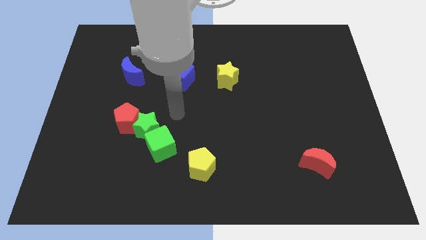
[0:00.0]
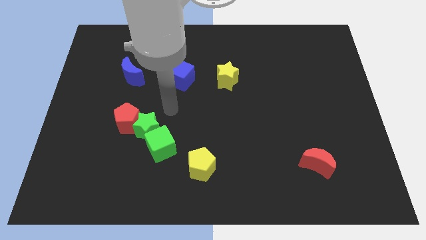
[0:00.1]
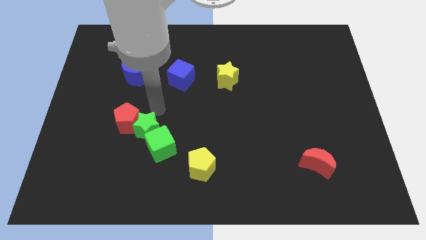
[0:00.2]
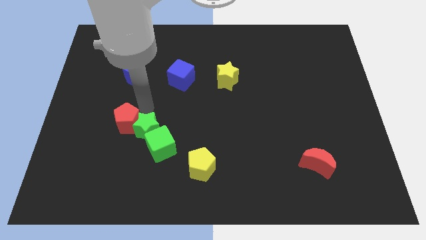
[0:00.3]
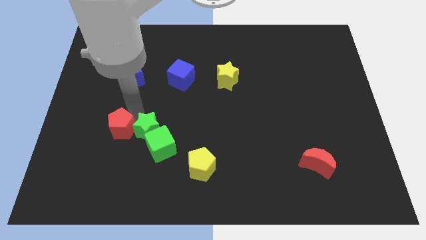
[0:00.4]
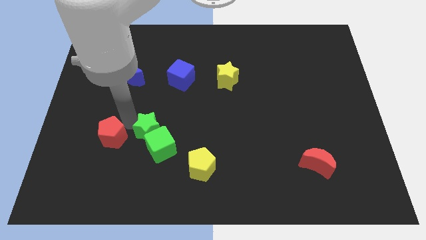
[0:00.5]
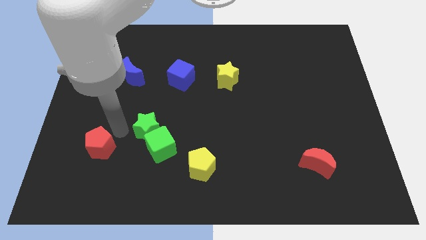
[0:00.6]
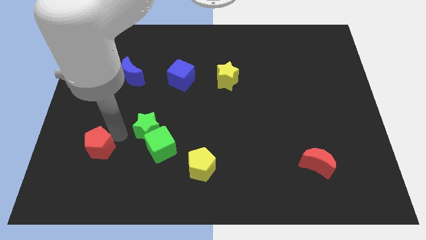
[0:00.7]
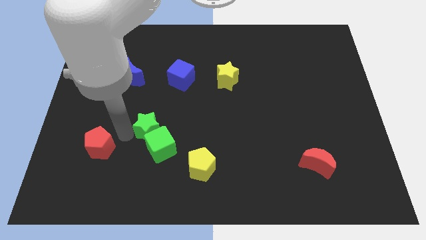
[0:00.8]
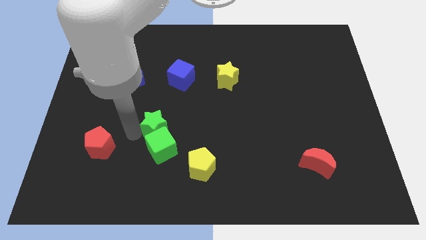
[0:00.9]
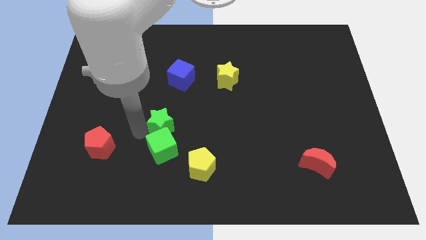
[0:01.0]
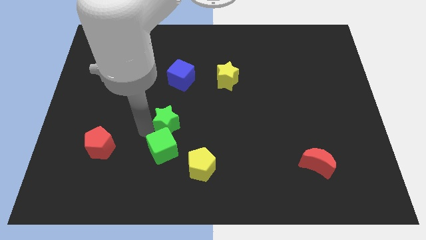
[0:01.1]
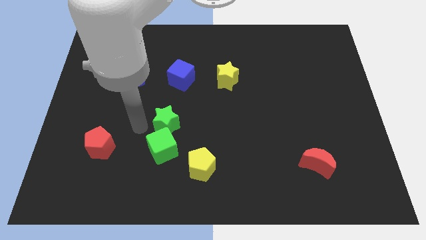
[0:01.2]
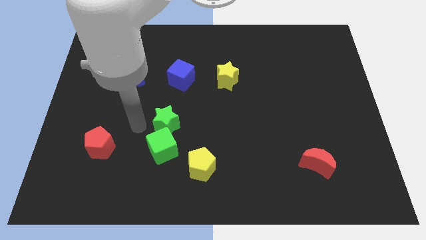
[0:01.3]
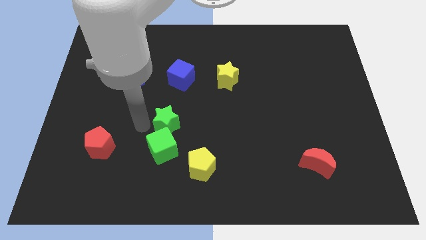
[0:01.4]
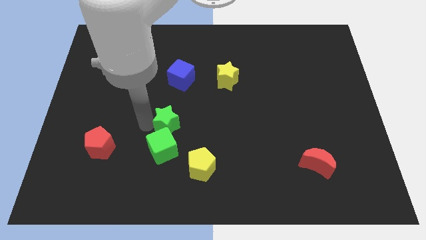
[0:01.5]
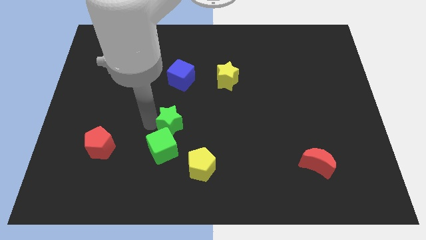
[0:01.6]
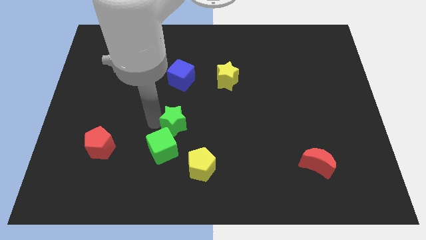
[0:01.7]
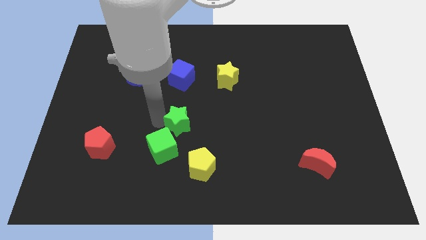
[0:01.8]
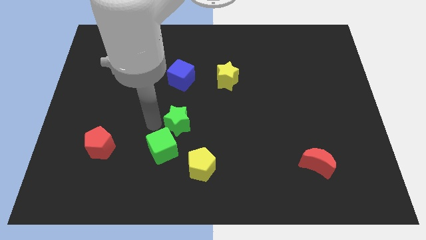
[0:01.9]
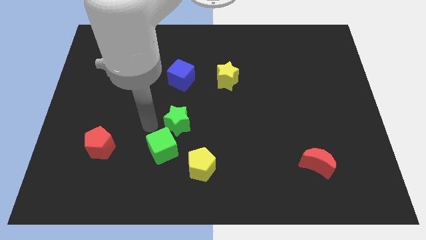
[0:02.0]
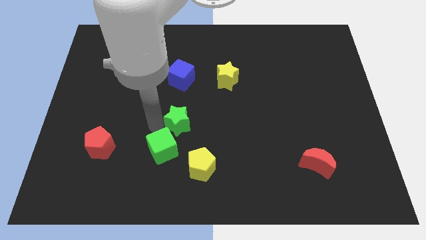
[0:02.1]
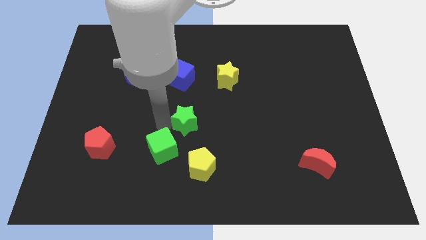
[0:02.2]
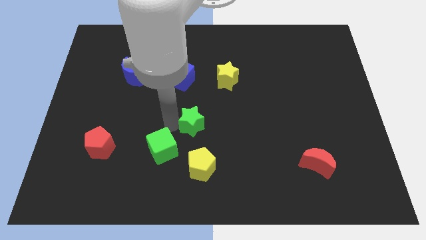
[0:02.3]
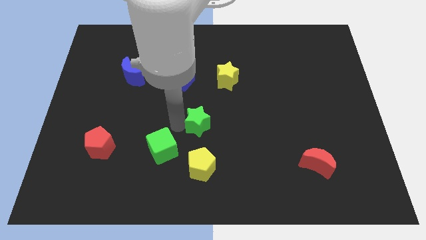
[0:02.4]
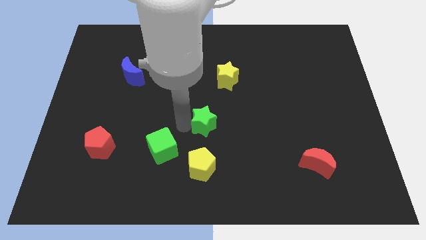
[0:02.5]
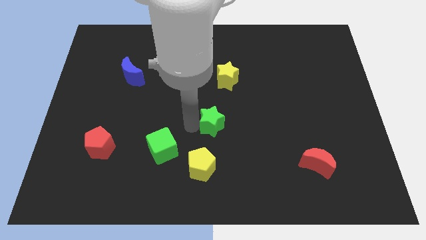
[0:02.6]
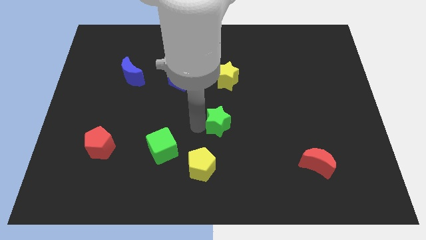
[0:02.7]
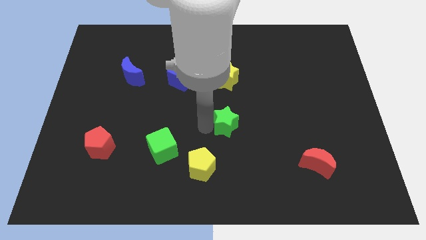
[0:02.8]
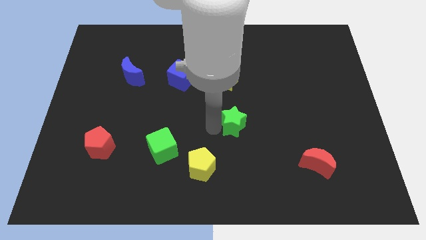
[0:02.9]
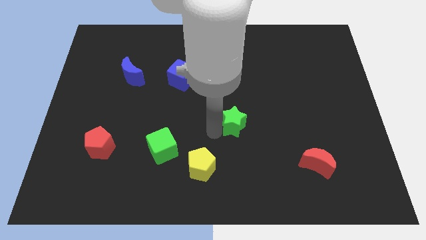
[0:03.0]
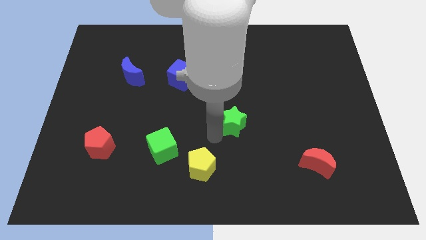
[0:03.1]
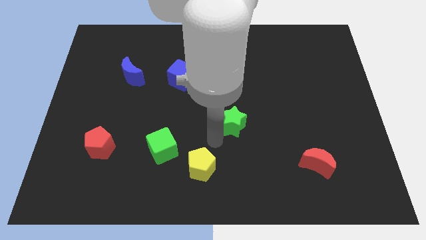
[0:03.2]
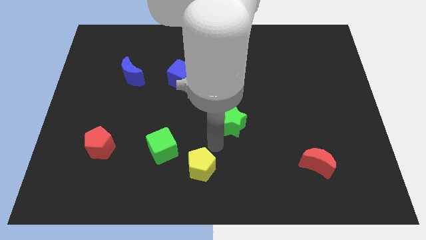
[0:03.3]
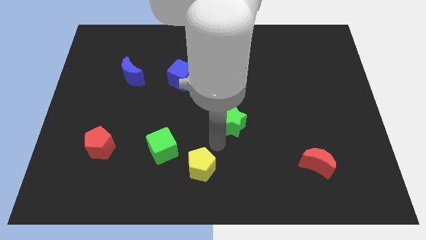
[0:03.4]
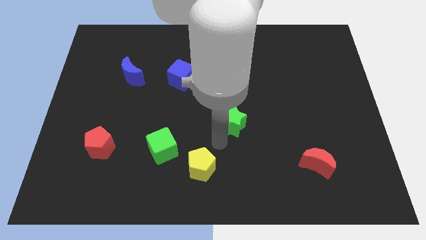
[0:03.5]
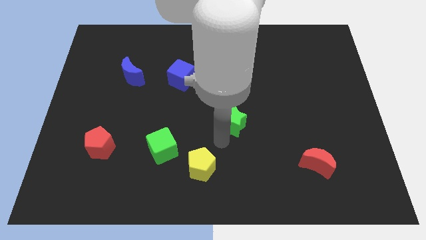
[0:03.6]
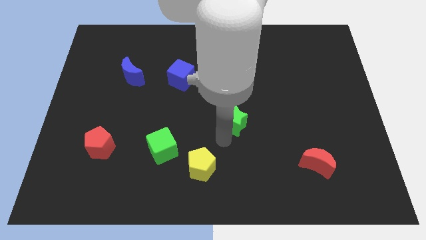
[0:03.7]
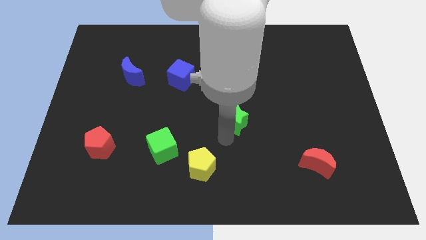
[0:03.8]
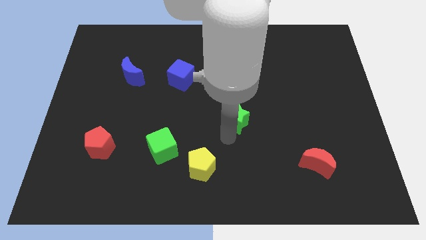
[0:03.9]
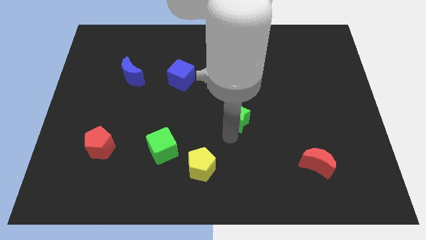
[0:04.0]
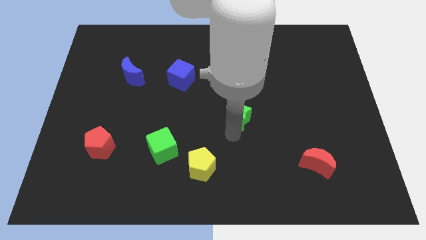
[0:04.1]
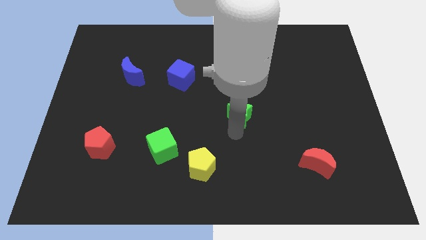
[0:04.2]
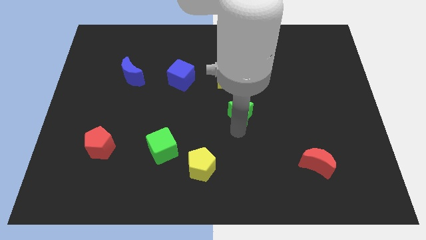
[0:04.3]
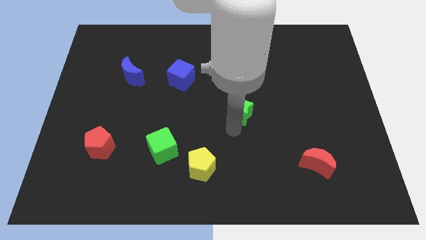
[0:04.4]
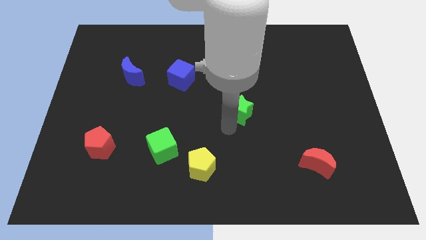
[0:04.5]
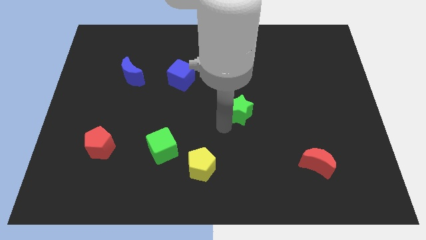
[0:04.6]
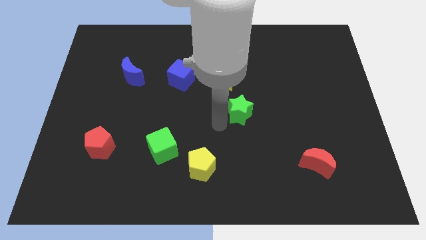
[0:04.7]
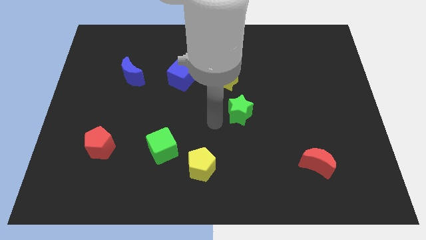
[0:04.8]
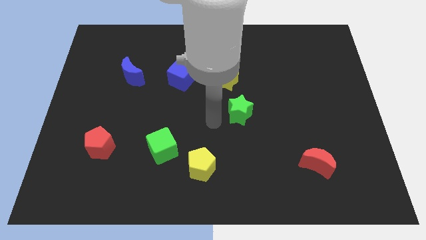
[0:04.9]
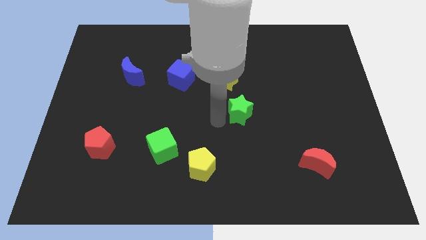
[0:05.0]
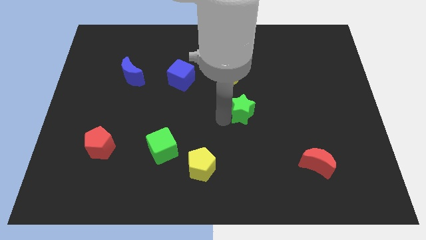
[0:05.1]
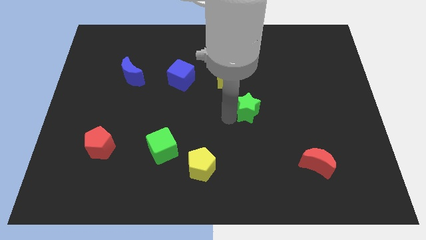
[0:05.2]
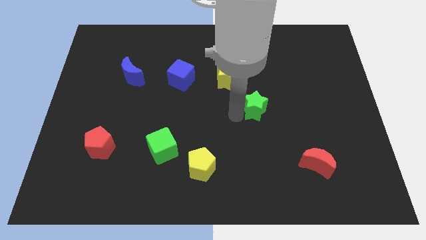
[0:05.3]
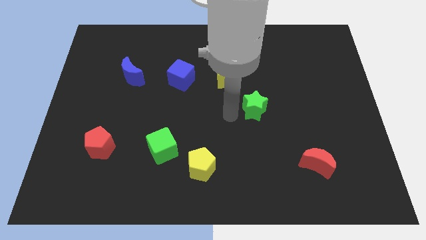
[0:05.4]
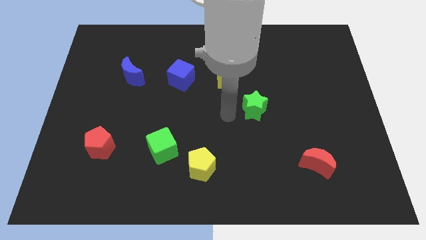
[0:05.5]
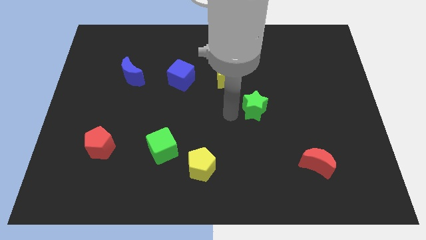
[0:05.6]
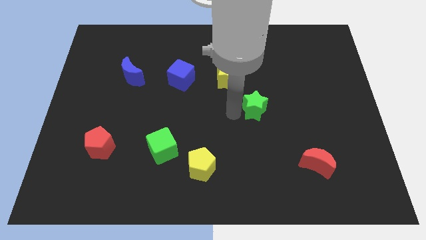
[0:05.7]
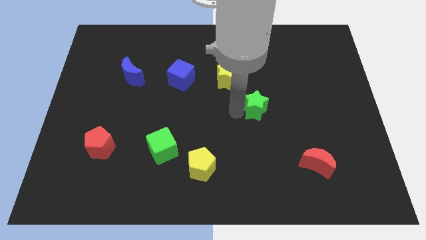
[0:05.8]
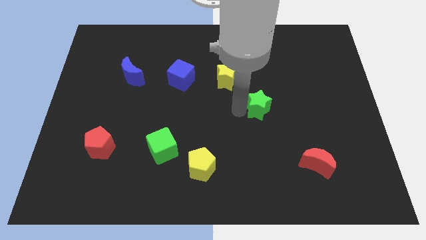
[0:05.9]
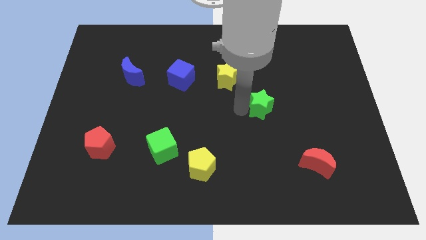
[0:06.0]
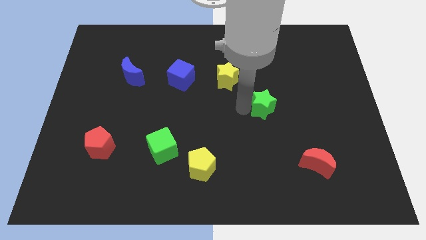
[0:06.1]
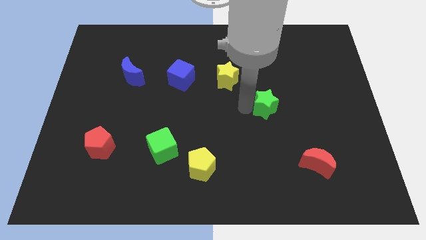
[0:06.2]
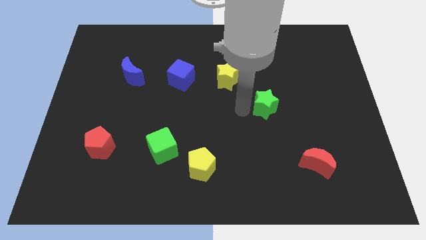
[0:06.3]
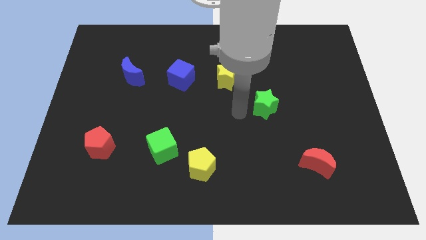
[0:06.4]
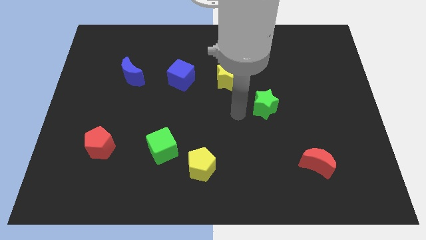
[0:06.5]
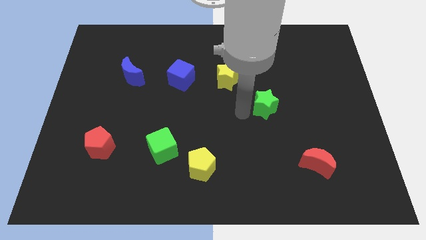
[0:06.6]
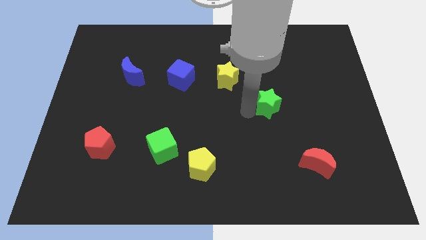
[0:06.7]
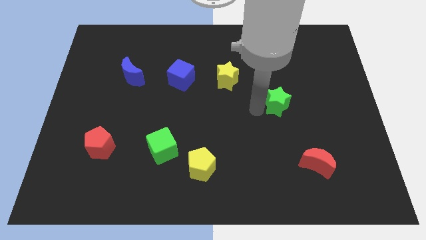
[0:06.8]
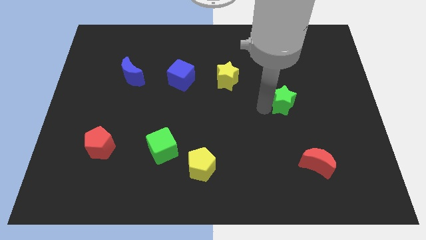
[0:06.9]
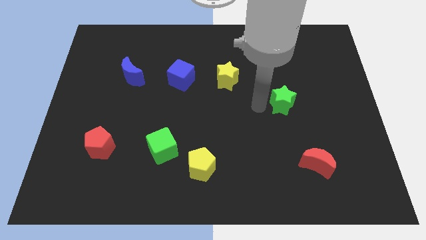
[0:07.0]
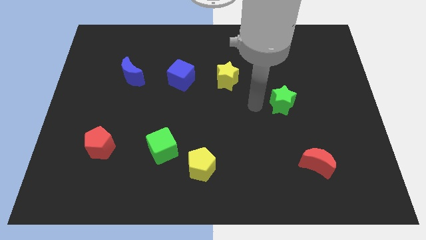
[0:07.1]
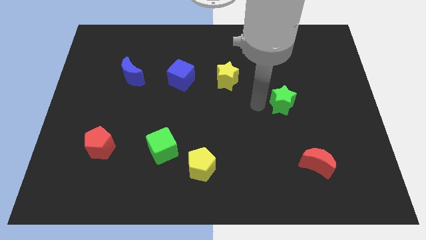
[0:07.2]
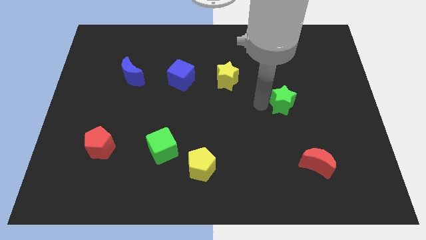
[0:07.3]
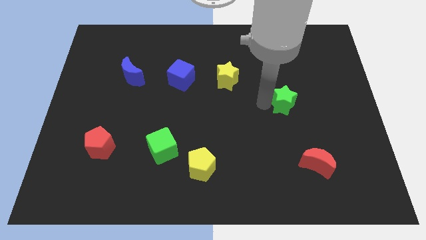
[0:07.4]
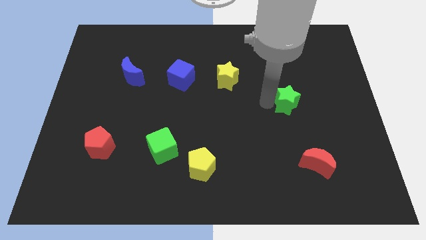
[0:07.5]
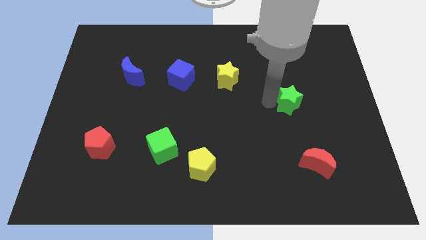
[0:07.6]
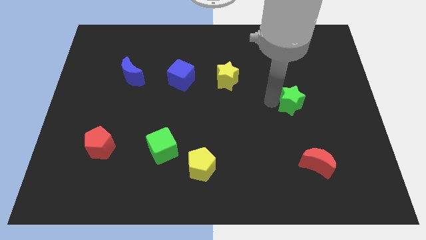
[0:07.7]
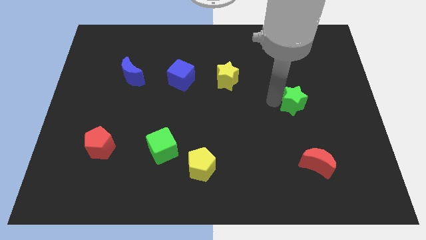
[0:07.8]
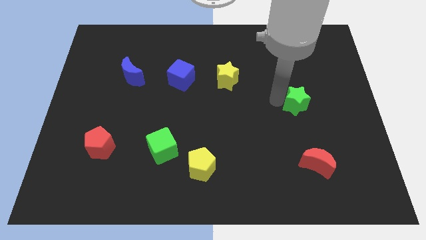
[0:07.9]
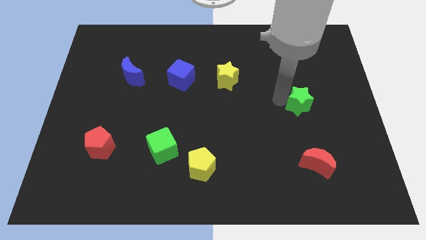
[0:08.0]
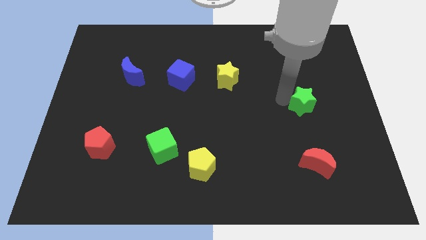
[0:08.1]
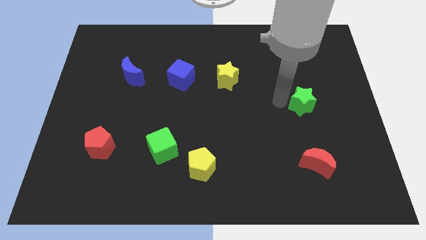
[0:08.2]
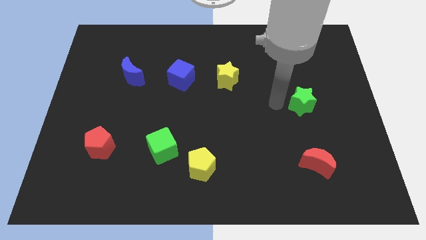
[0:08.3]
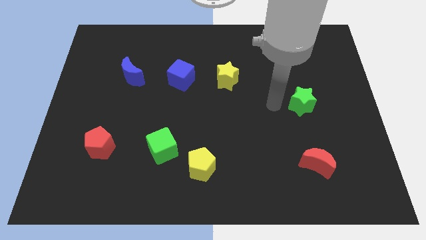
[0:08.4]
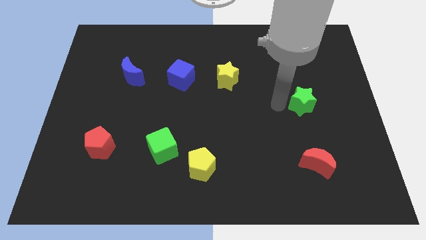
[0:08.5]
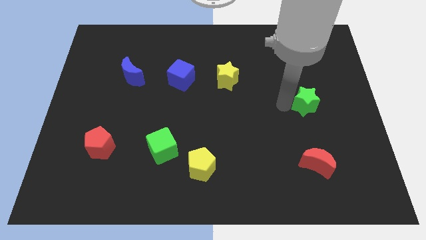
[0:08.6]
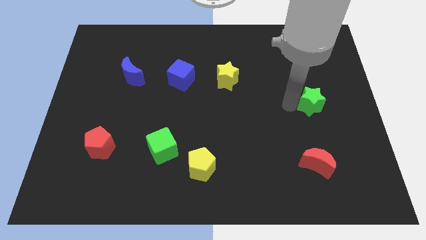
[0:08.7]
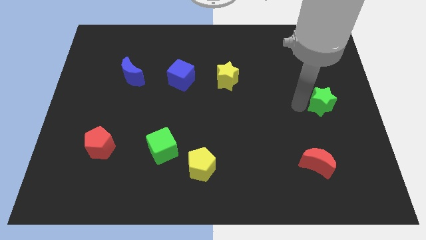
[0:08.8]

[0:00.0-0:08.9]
slide the green star to the center right
